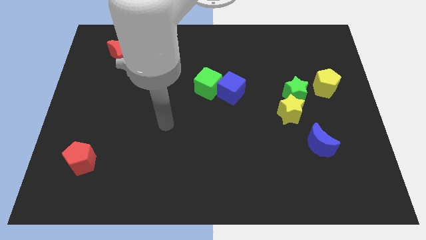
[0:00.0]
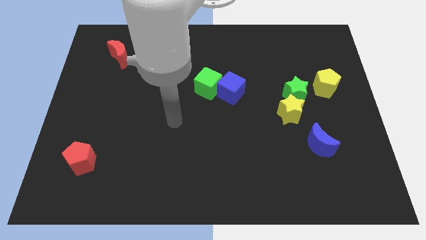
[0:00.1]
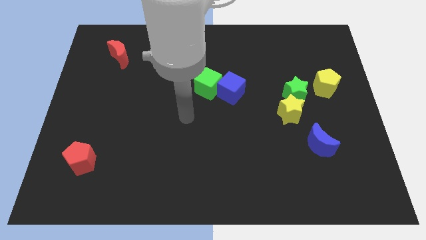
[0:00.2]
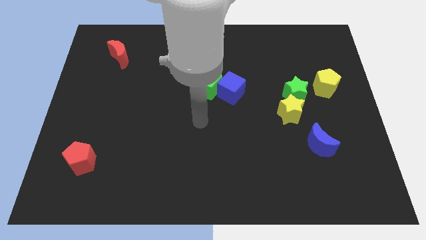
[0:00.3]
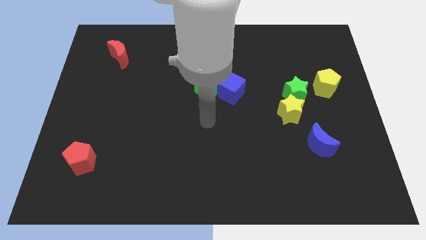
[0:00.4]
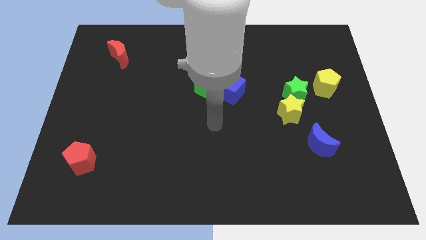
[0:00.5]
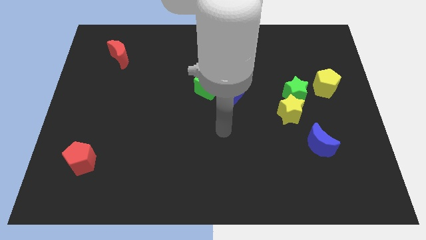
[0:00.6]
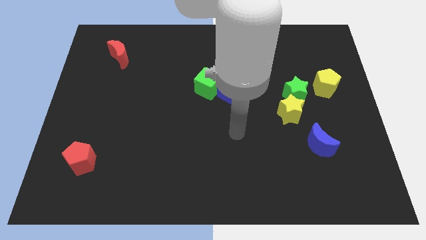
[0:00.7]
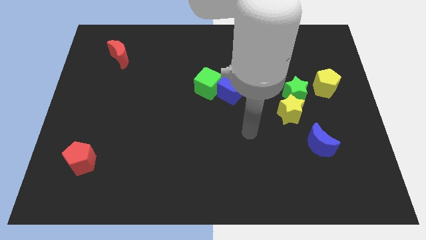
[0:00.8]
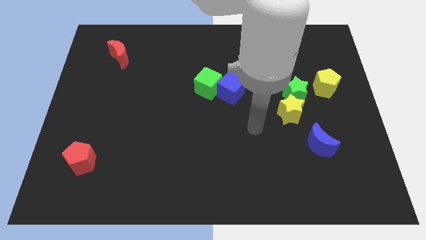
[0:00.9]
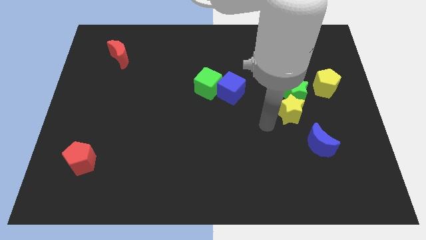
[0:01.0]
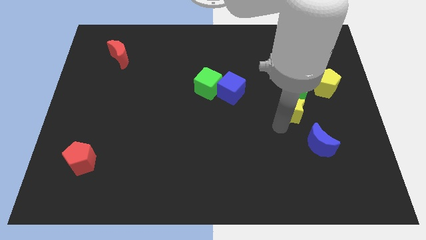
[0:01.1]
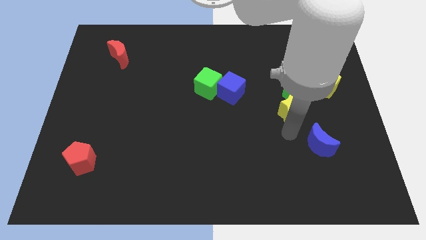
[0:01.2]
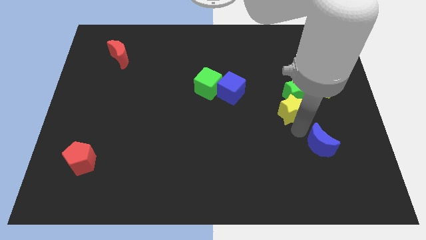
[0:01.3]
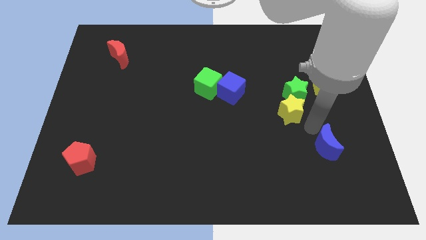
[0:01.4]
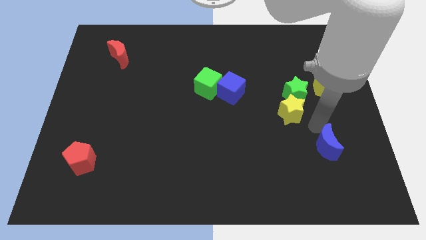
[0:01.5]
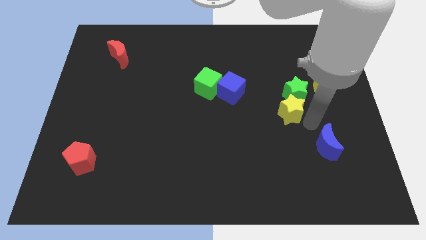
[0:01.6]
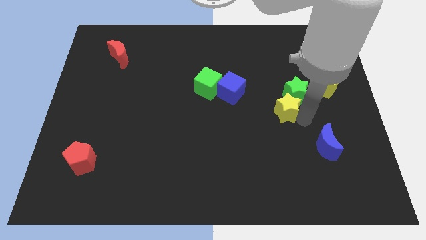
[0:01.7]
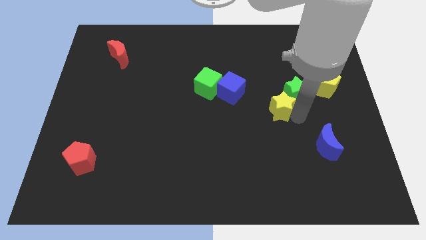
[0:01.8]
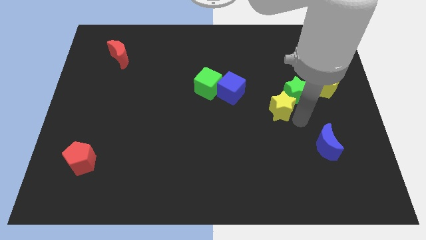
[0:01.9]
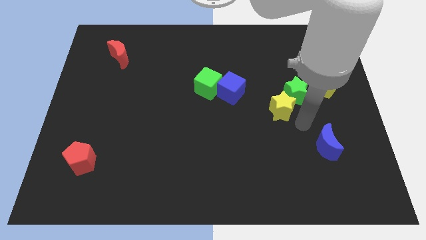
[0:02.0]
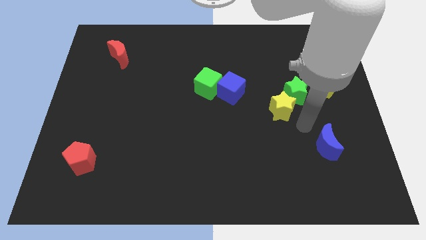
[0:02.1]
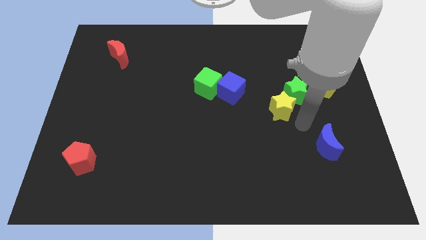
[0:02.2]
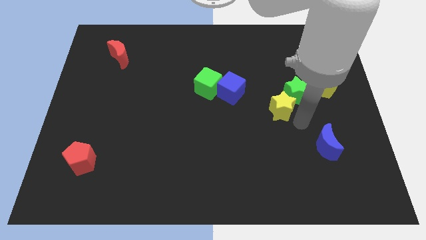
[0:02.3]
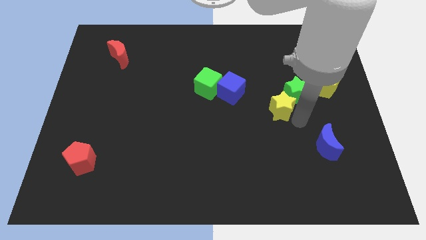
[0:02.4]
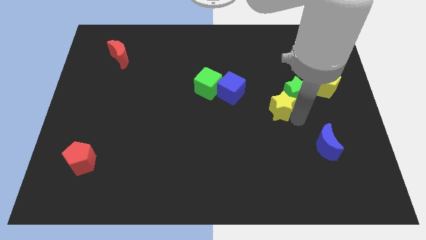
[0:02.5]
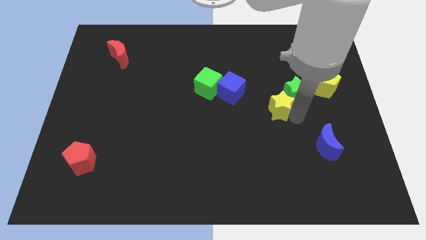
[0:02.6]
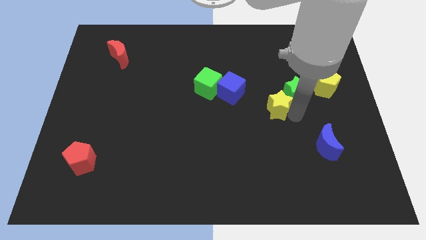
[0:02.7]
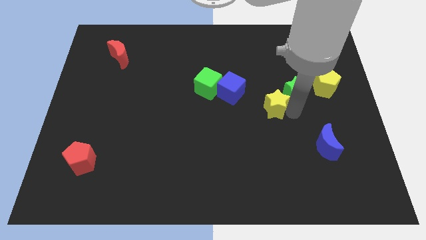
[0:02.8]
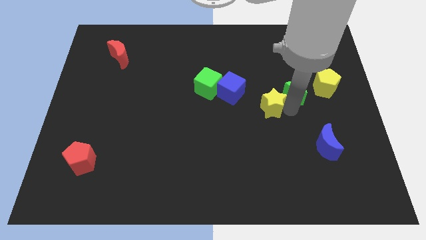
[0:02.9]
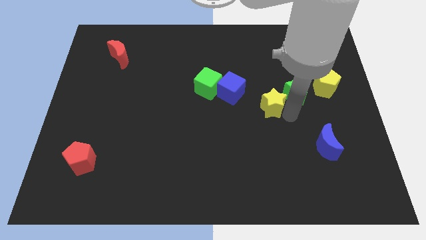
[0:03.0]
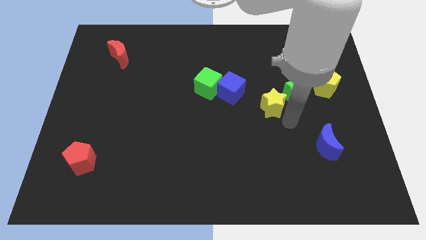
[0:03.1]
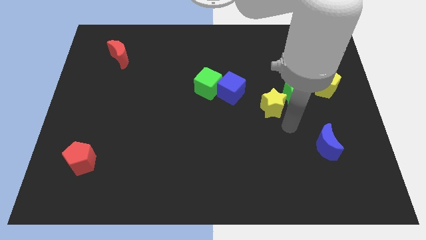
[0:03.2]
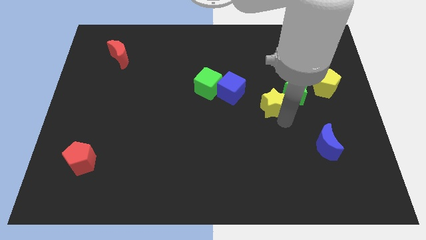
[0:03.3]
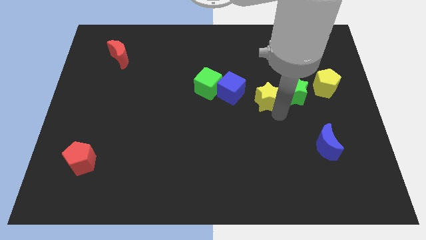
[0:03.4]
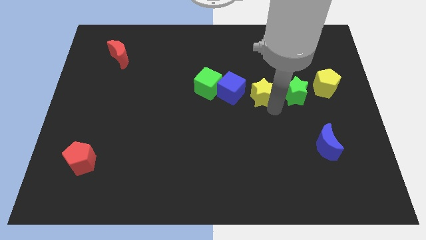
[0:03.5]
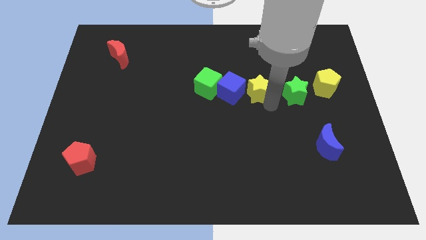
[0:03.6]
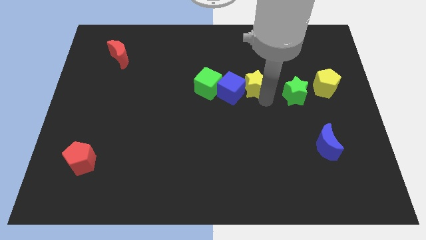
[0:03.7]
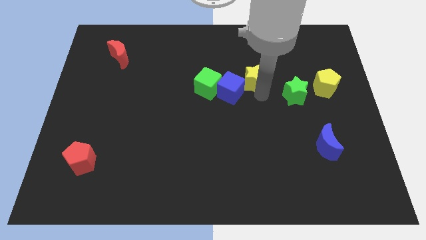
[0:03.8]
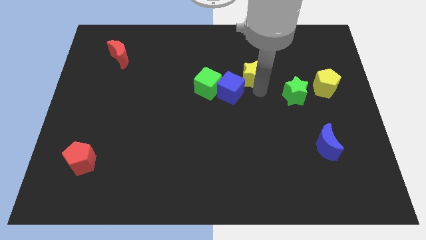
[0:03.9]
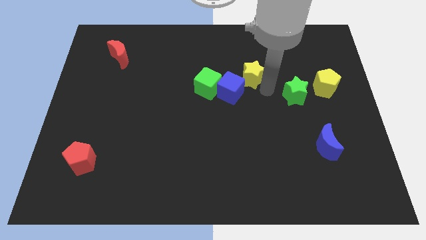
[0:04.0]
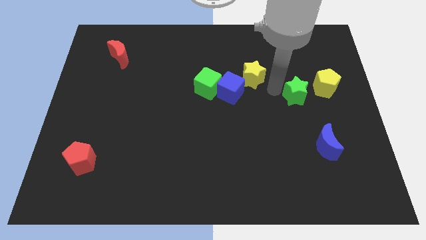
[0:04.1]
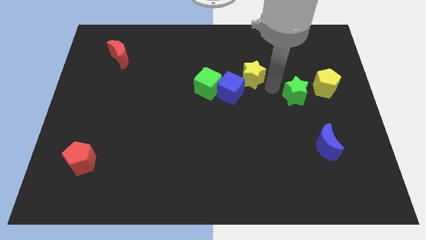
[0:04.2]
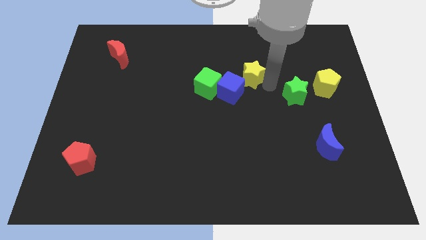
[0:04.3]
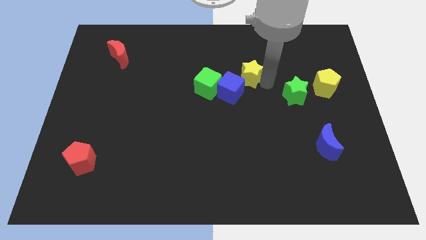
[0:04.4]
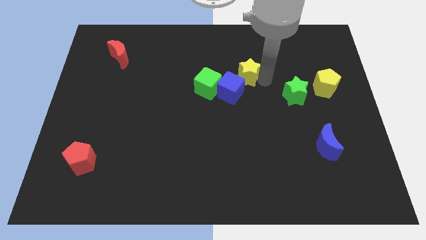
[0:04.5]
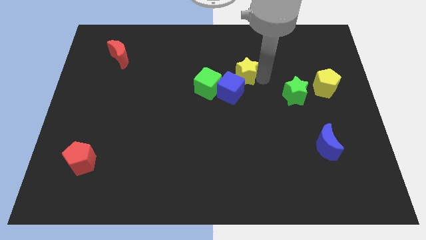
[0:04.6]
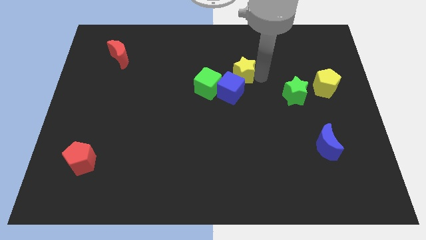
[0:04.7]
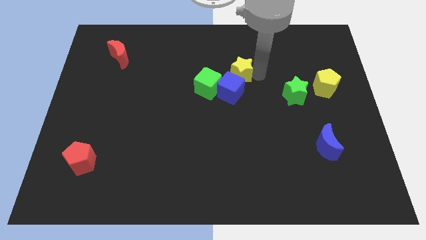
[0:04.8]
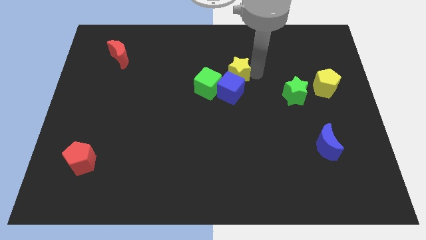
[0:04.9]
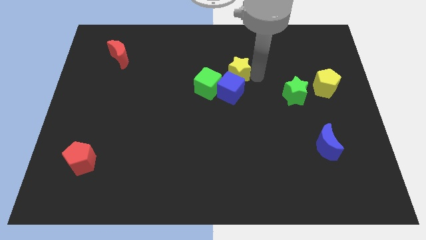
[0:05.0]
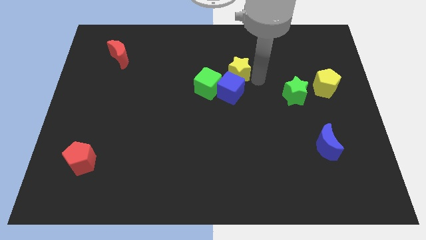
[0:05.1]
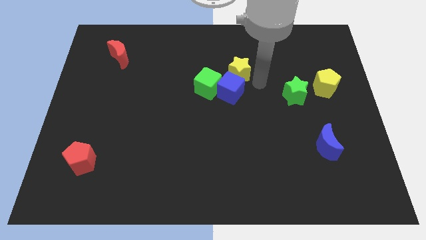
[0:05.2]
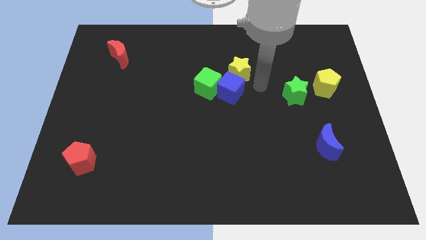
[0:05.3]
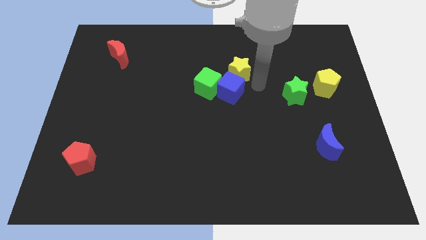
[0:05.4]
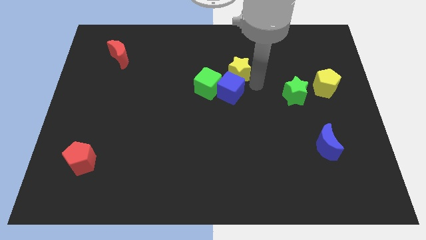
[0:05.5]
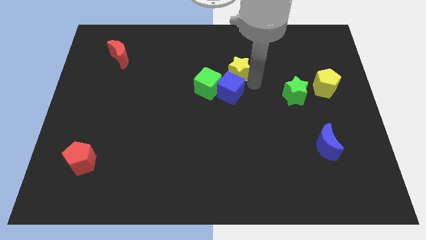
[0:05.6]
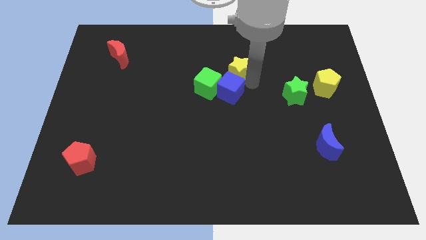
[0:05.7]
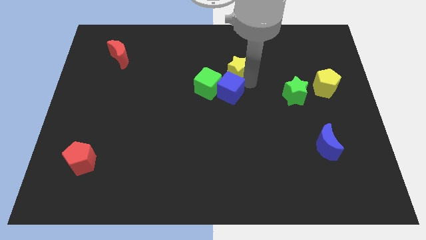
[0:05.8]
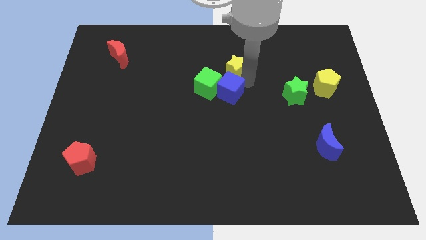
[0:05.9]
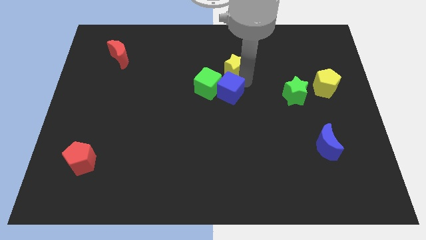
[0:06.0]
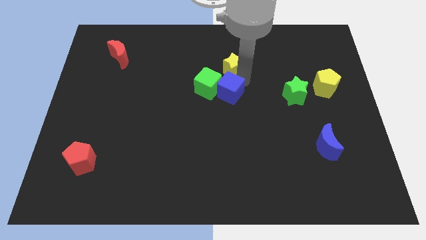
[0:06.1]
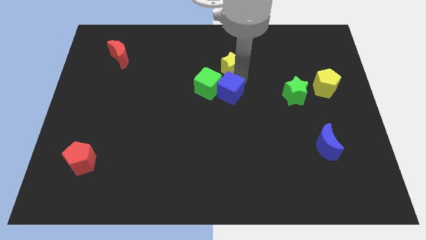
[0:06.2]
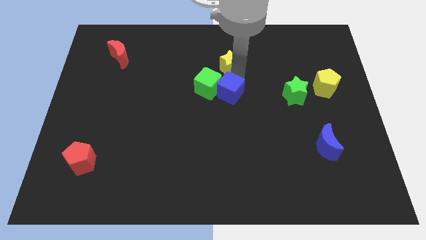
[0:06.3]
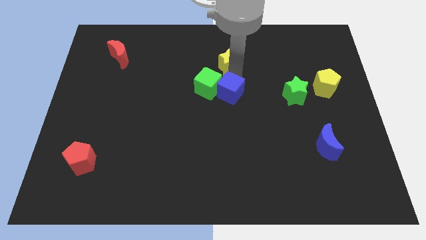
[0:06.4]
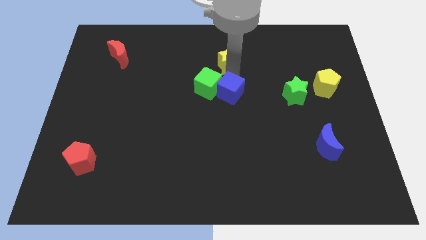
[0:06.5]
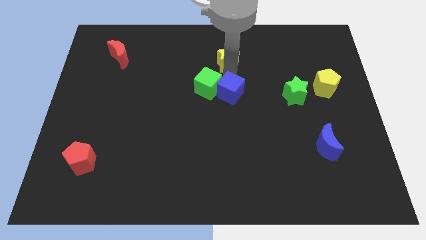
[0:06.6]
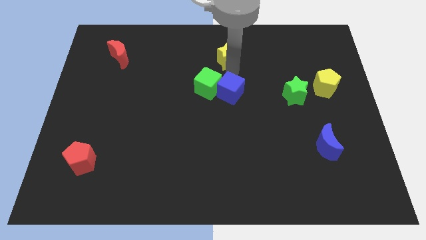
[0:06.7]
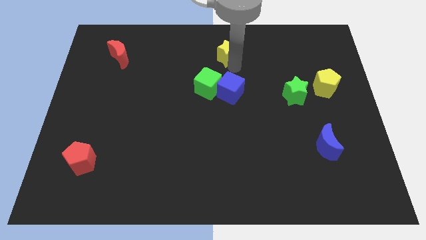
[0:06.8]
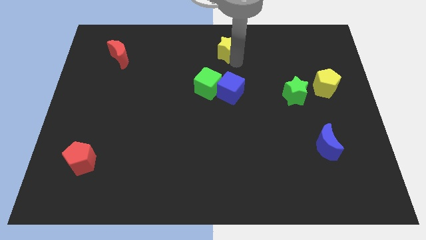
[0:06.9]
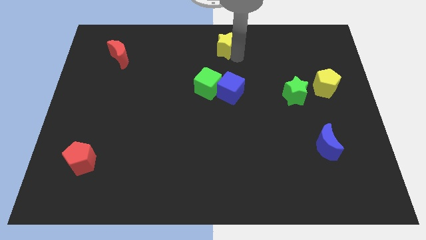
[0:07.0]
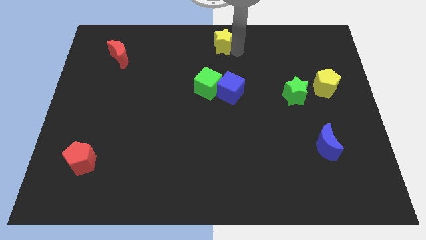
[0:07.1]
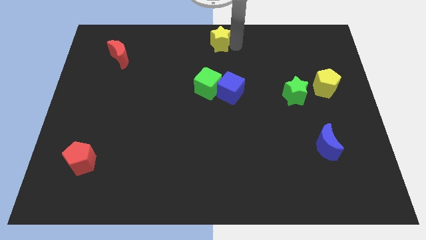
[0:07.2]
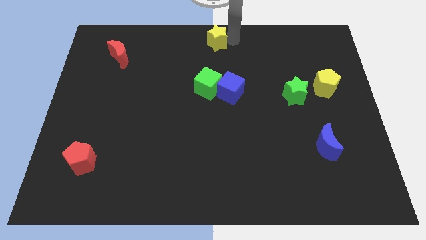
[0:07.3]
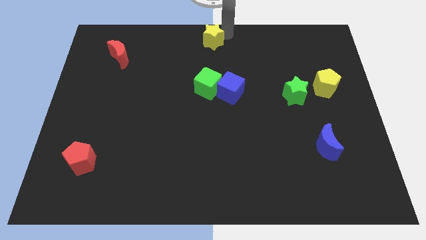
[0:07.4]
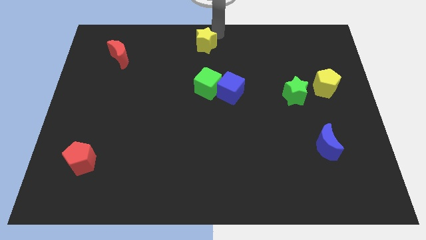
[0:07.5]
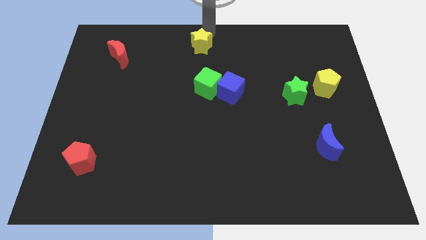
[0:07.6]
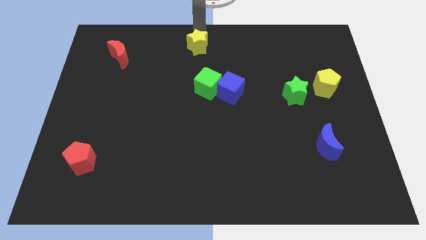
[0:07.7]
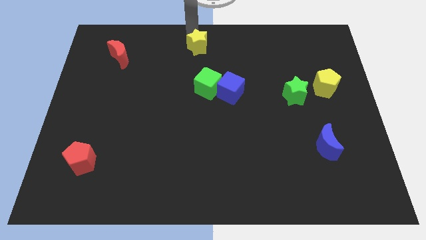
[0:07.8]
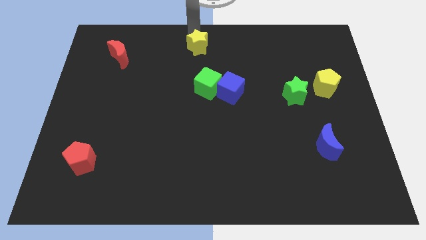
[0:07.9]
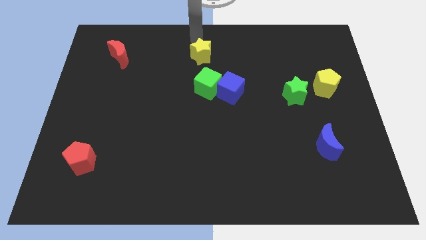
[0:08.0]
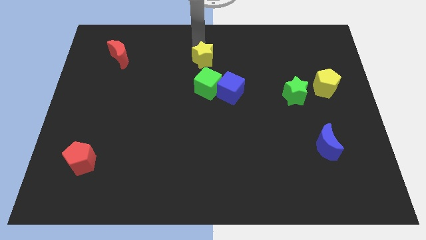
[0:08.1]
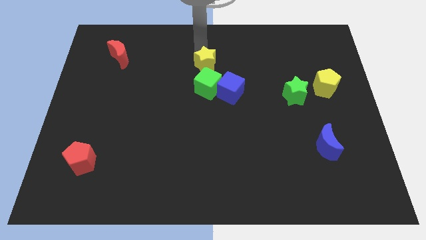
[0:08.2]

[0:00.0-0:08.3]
push the yellow star diagonally up and to the left of the blue cube
